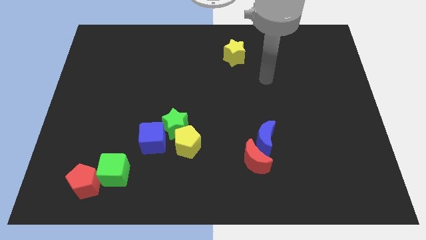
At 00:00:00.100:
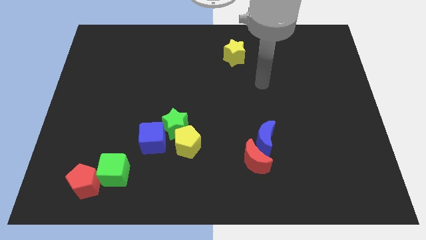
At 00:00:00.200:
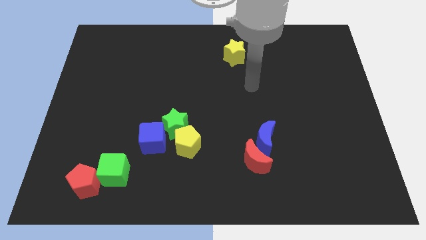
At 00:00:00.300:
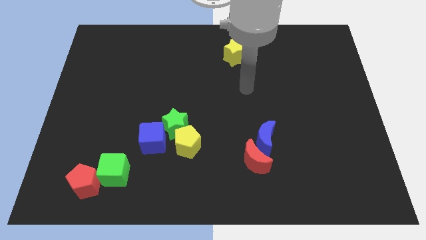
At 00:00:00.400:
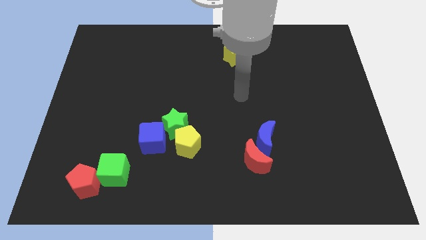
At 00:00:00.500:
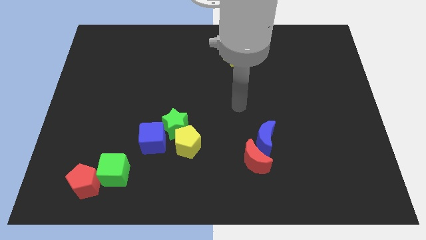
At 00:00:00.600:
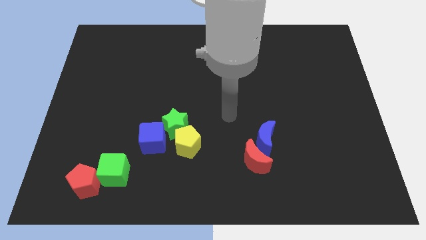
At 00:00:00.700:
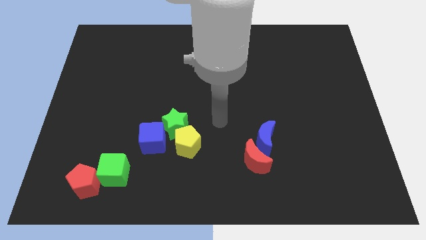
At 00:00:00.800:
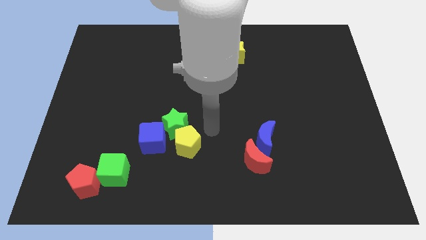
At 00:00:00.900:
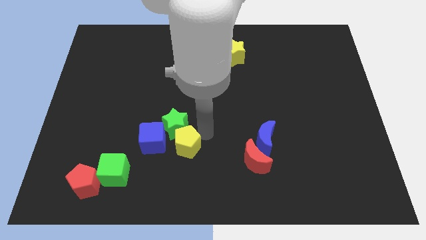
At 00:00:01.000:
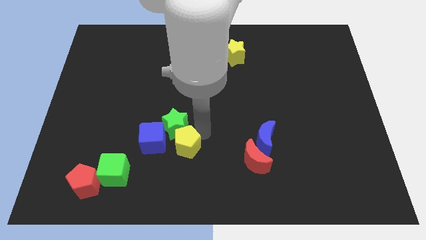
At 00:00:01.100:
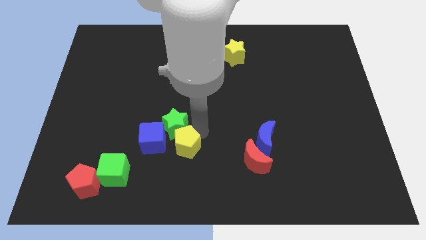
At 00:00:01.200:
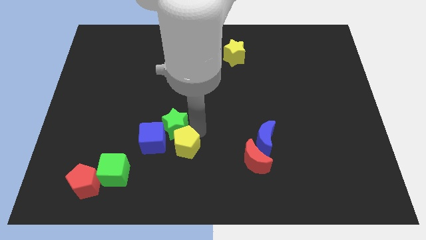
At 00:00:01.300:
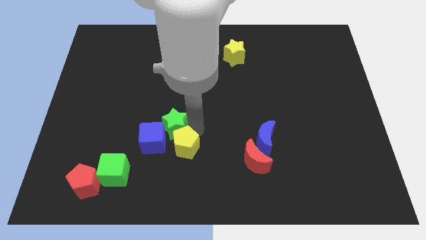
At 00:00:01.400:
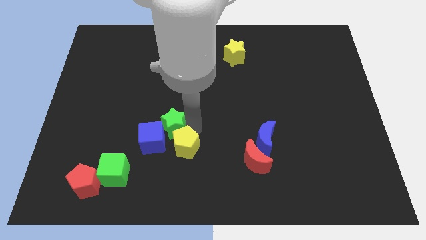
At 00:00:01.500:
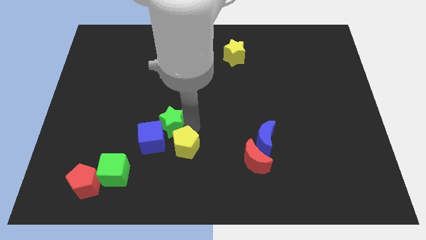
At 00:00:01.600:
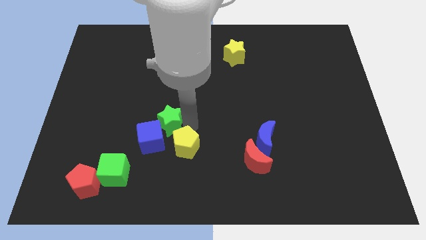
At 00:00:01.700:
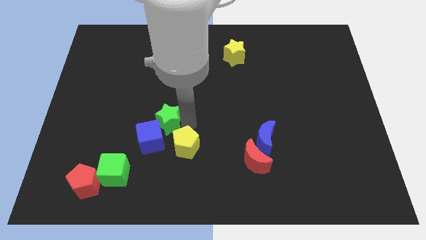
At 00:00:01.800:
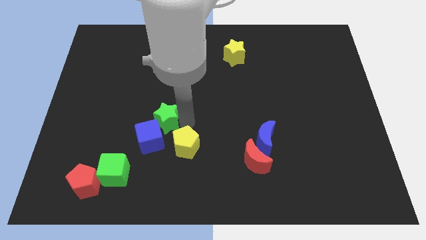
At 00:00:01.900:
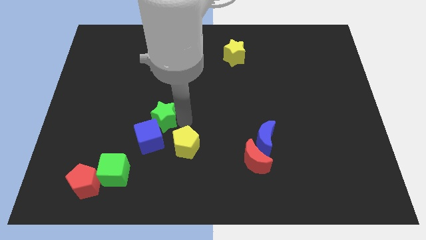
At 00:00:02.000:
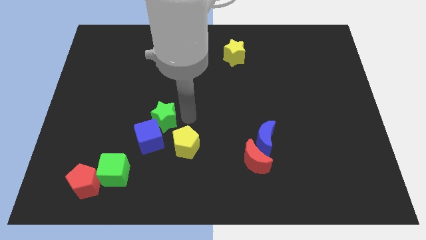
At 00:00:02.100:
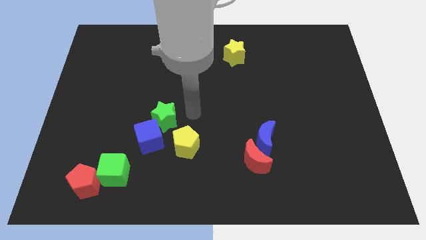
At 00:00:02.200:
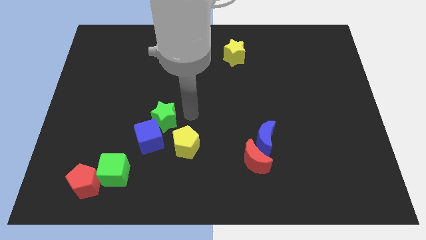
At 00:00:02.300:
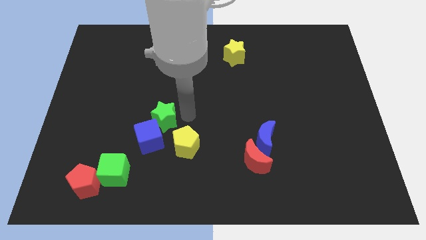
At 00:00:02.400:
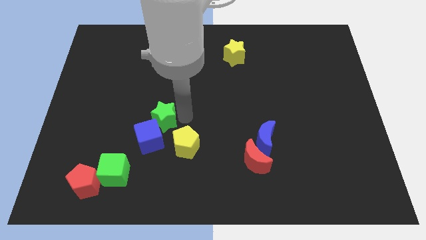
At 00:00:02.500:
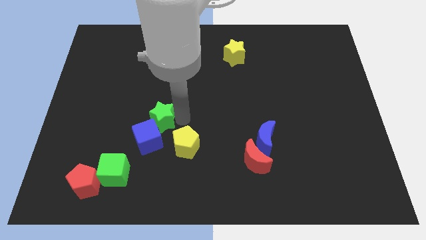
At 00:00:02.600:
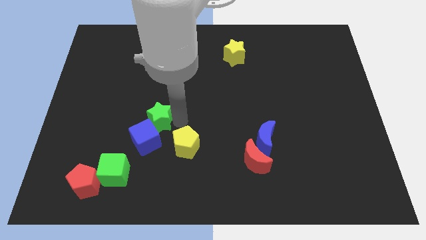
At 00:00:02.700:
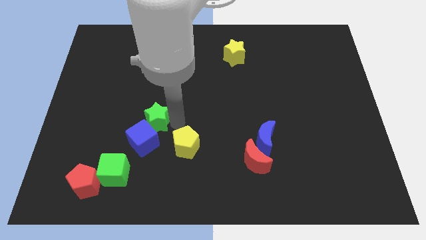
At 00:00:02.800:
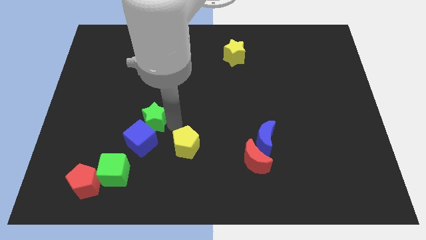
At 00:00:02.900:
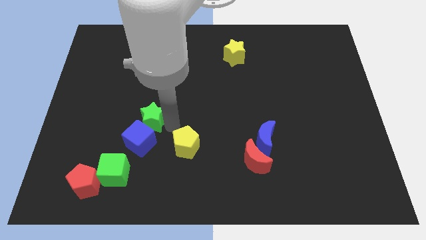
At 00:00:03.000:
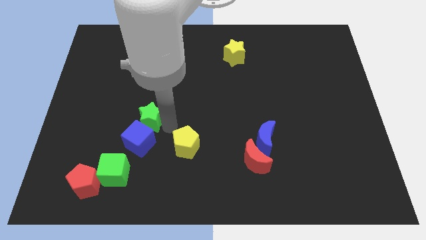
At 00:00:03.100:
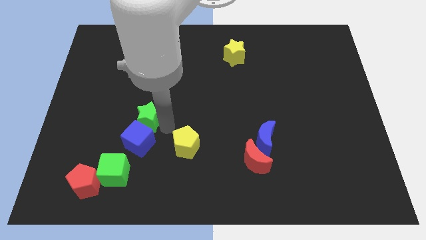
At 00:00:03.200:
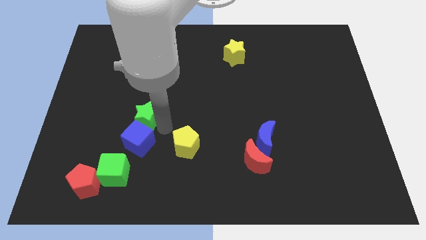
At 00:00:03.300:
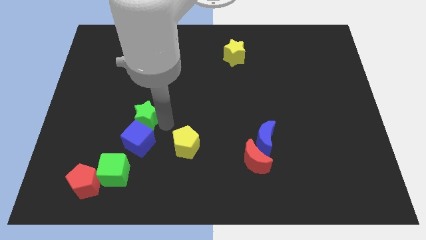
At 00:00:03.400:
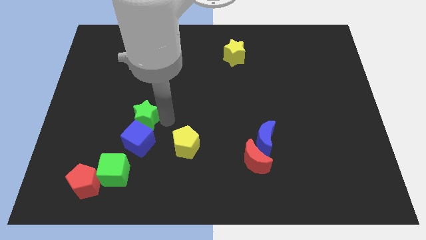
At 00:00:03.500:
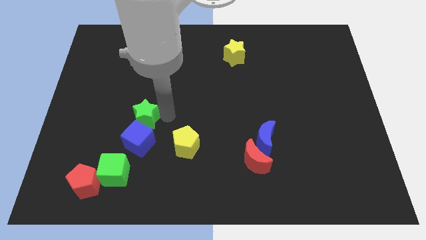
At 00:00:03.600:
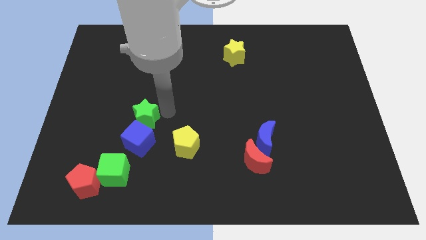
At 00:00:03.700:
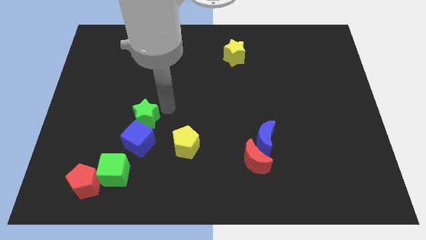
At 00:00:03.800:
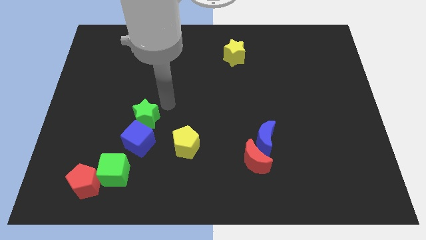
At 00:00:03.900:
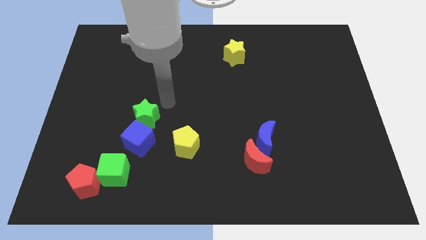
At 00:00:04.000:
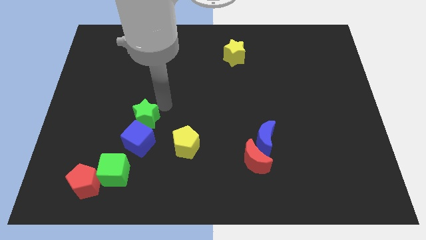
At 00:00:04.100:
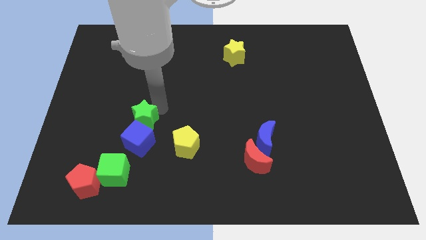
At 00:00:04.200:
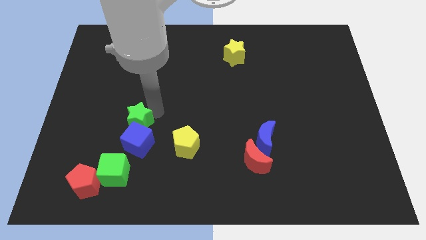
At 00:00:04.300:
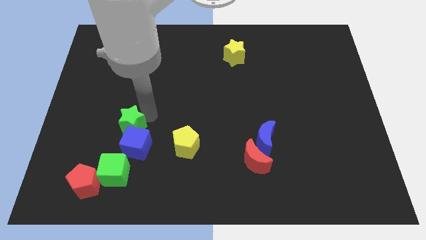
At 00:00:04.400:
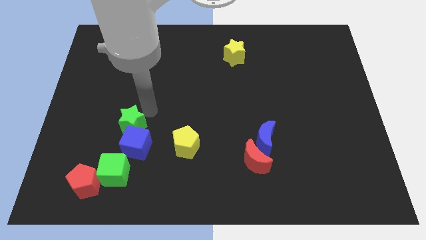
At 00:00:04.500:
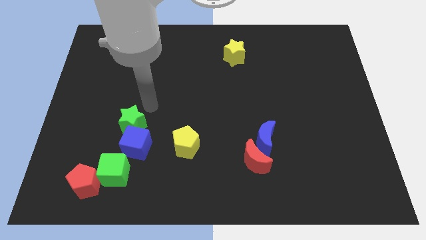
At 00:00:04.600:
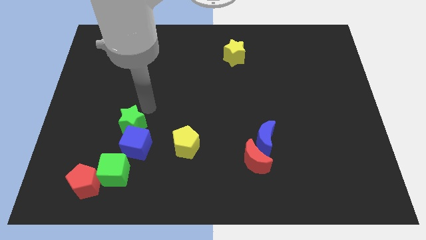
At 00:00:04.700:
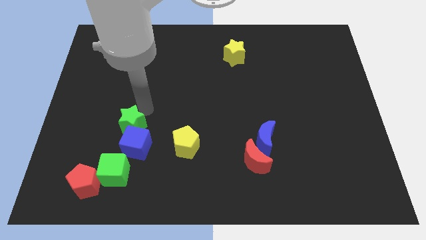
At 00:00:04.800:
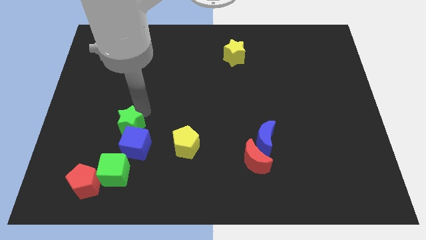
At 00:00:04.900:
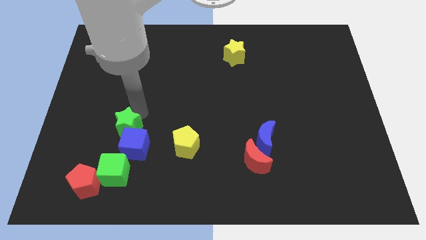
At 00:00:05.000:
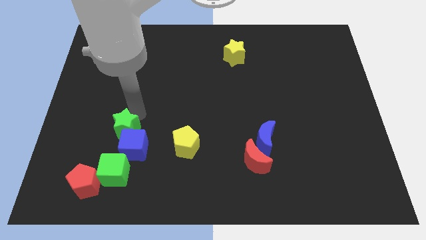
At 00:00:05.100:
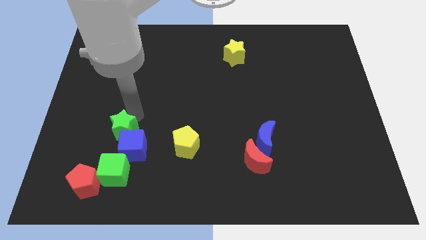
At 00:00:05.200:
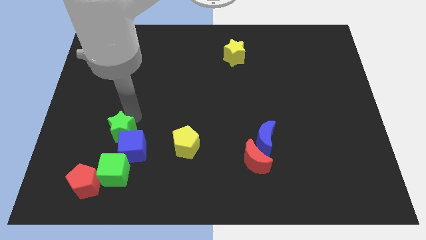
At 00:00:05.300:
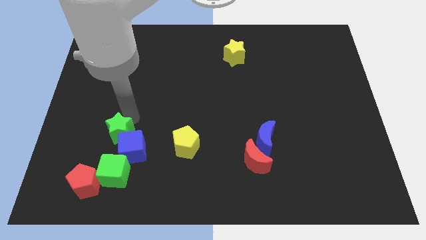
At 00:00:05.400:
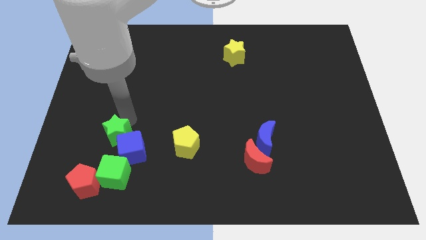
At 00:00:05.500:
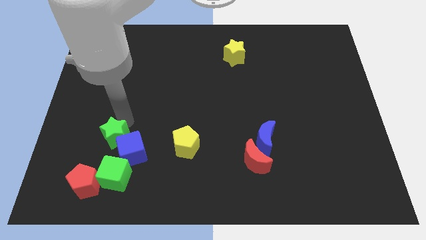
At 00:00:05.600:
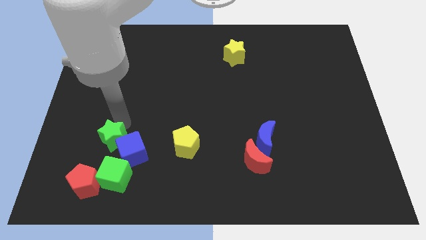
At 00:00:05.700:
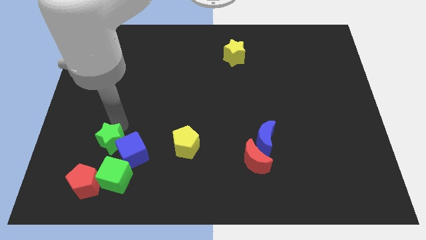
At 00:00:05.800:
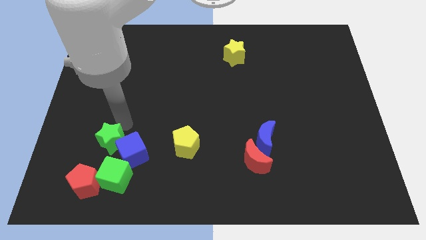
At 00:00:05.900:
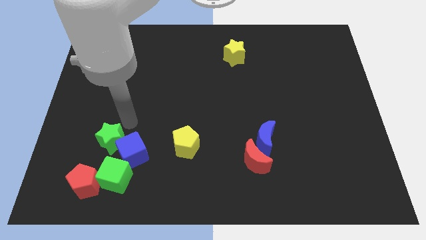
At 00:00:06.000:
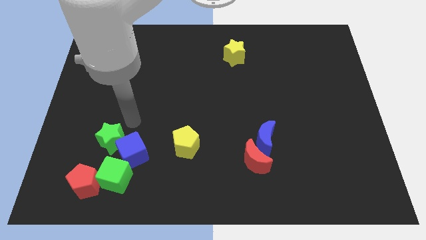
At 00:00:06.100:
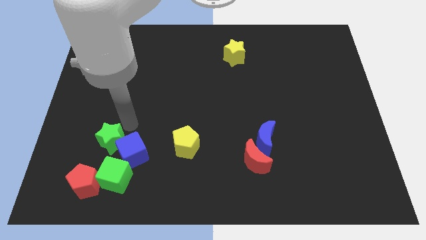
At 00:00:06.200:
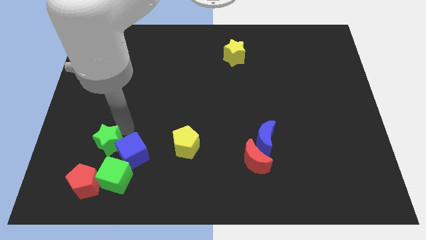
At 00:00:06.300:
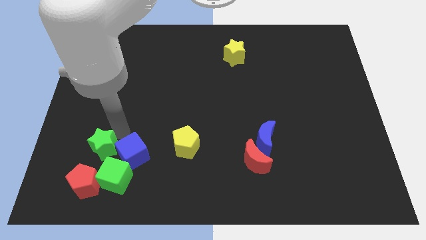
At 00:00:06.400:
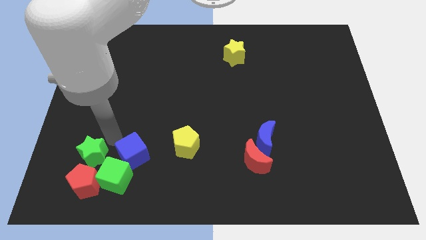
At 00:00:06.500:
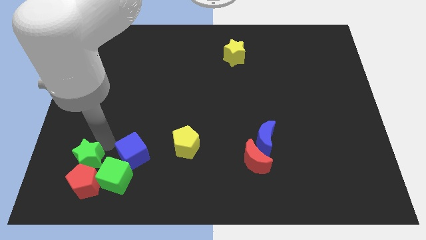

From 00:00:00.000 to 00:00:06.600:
put the green star towards the red pentagon
